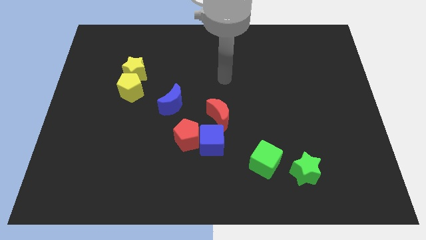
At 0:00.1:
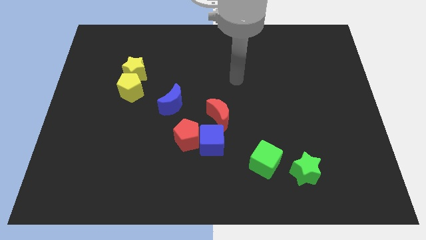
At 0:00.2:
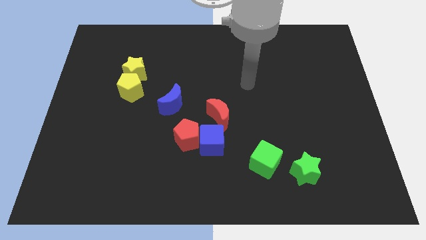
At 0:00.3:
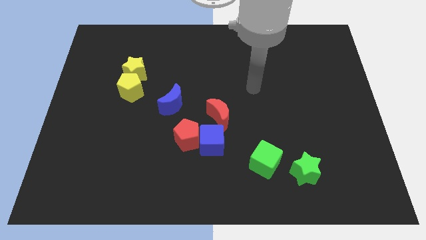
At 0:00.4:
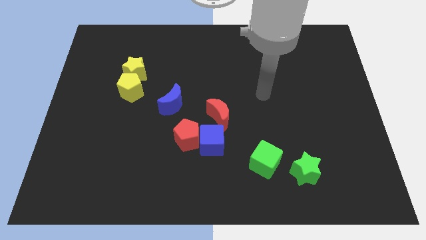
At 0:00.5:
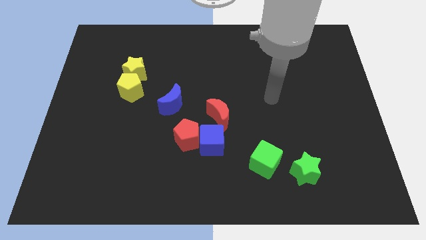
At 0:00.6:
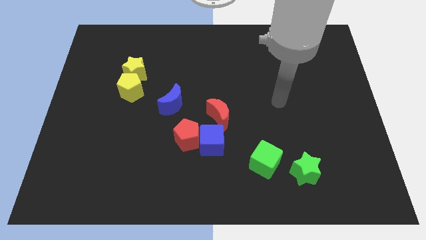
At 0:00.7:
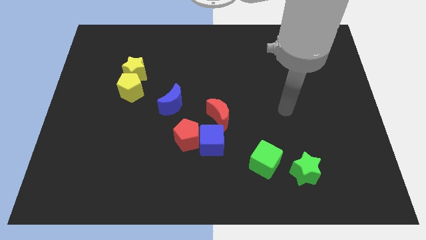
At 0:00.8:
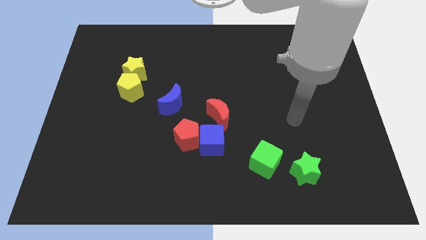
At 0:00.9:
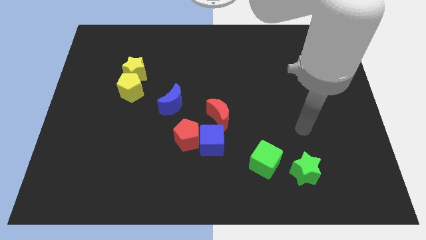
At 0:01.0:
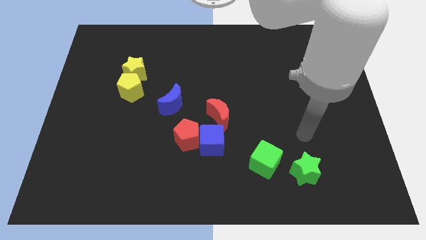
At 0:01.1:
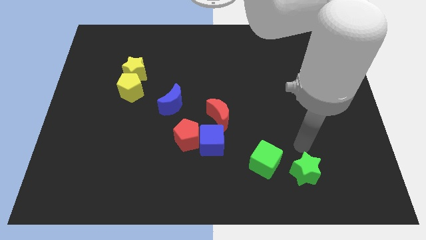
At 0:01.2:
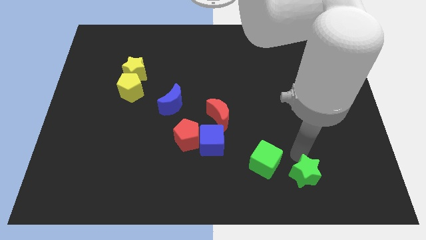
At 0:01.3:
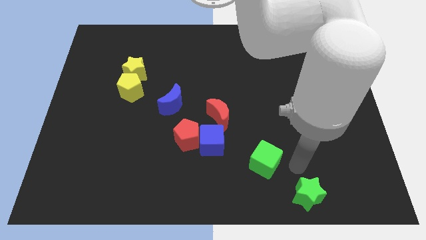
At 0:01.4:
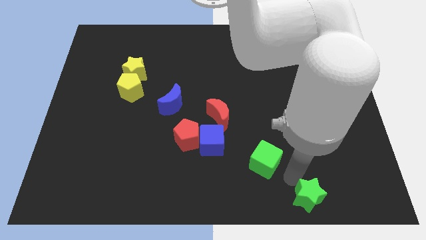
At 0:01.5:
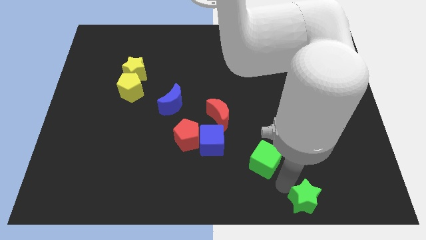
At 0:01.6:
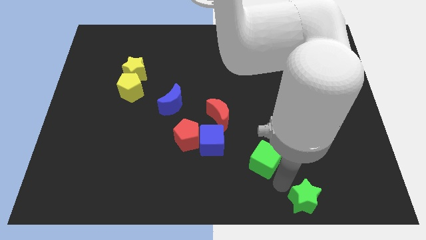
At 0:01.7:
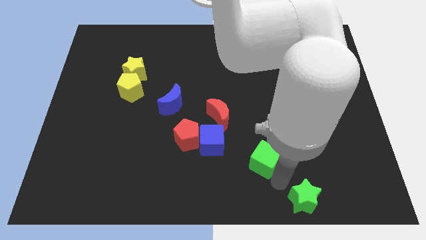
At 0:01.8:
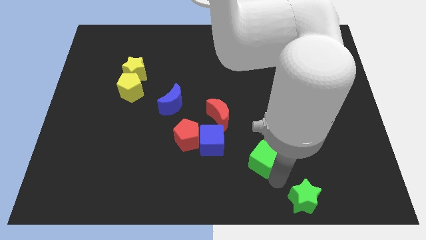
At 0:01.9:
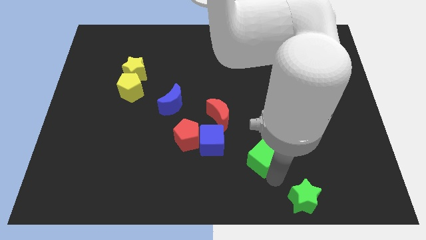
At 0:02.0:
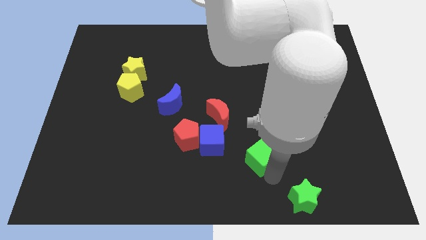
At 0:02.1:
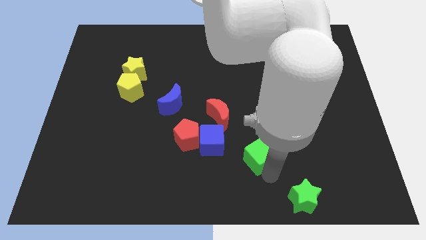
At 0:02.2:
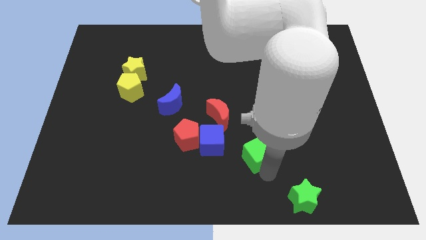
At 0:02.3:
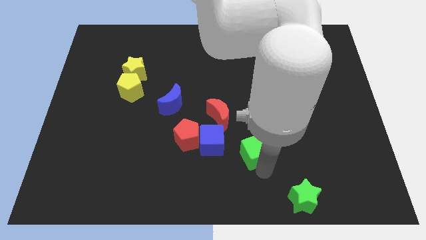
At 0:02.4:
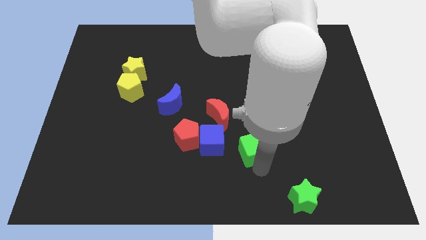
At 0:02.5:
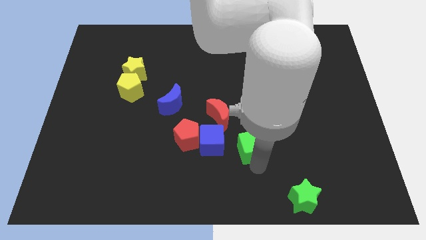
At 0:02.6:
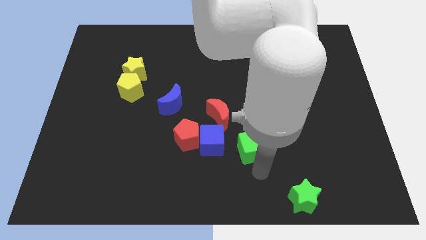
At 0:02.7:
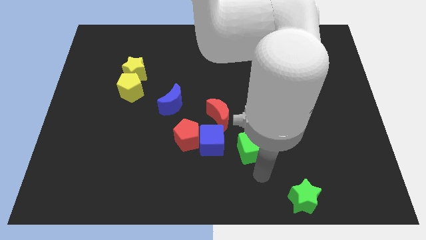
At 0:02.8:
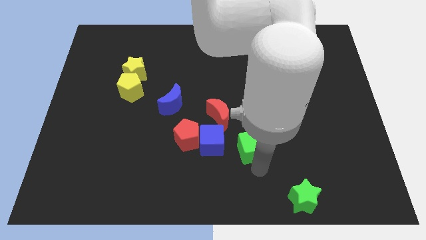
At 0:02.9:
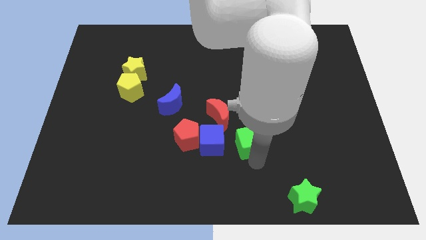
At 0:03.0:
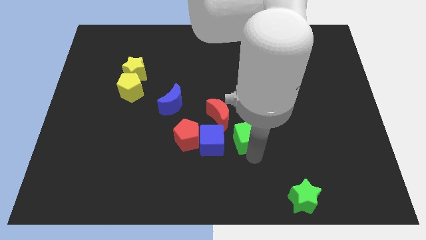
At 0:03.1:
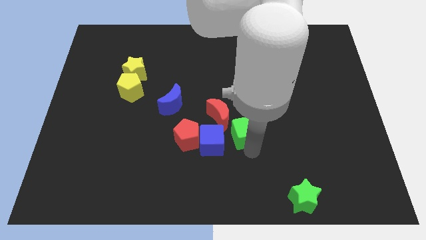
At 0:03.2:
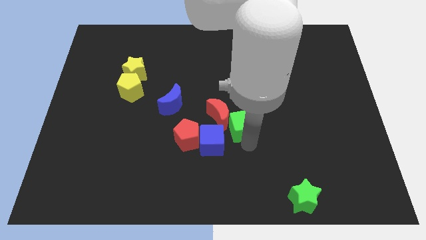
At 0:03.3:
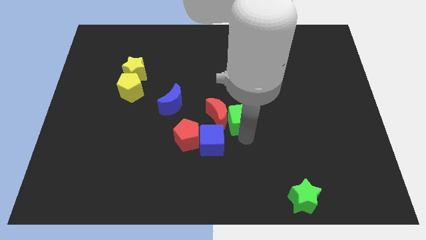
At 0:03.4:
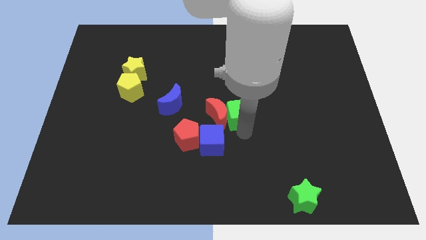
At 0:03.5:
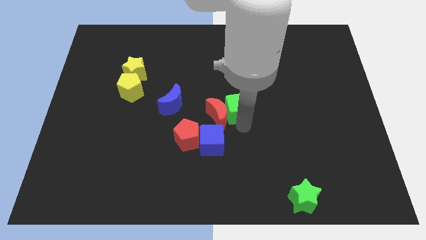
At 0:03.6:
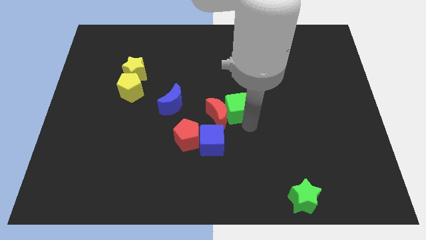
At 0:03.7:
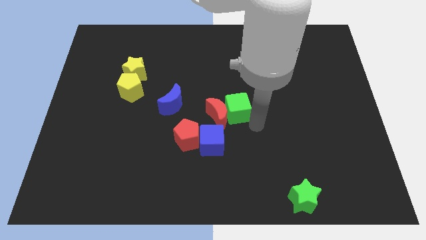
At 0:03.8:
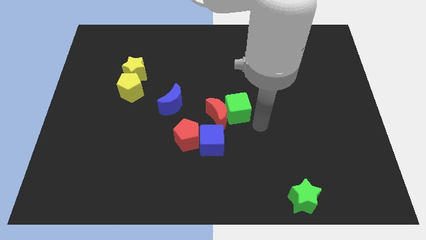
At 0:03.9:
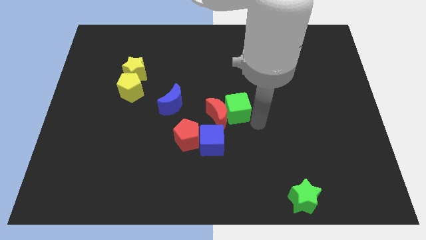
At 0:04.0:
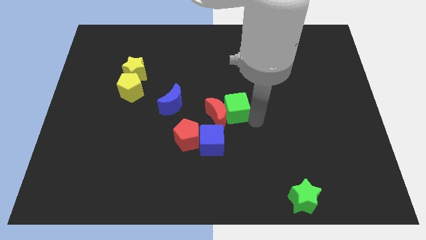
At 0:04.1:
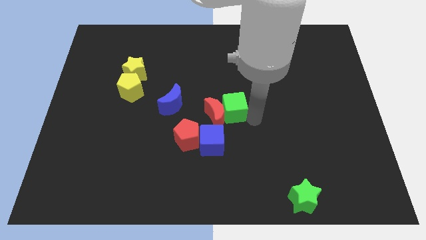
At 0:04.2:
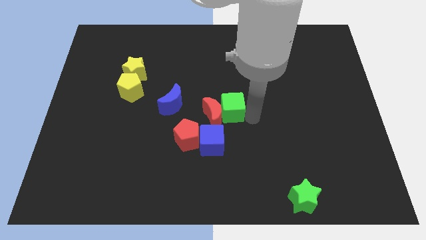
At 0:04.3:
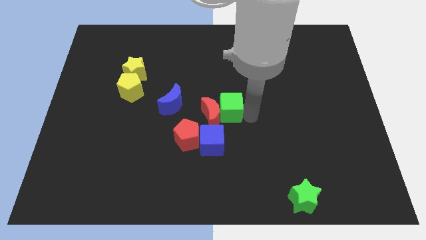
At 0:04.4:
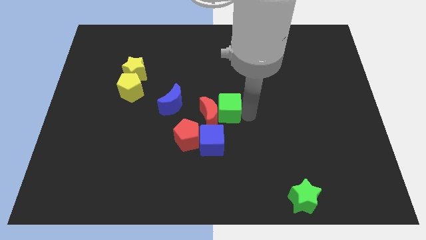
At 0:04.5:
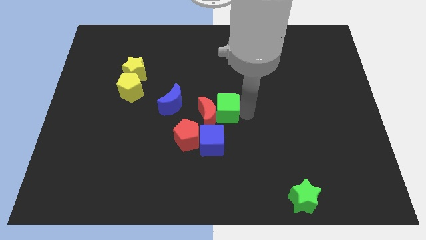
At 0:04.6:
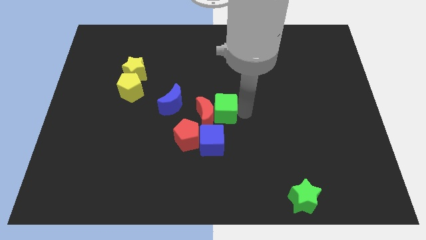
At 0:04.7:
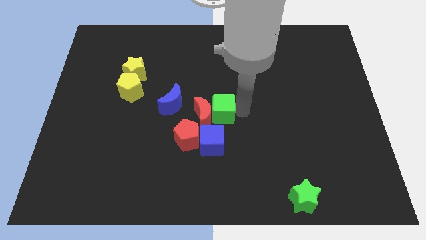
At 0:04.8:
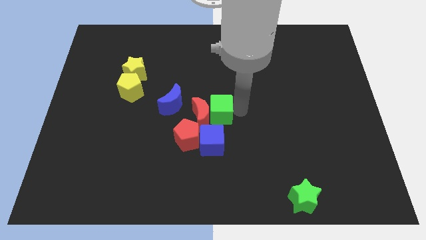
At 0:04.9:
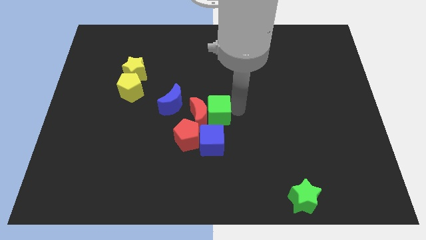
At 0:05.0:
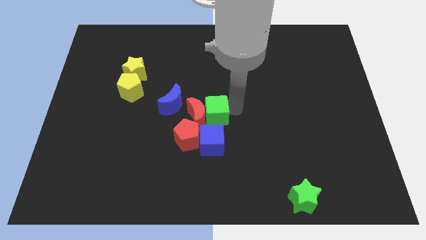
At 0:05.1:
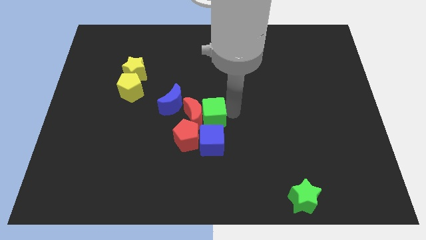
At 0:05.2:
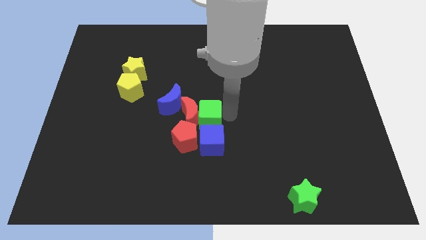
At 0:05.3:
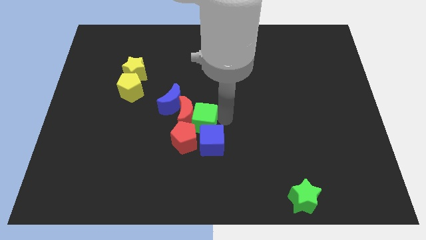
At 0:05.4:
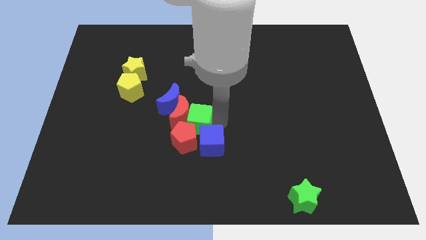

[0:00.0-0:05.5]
put the green cube close to the red pentagon

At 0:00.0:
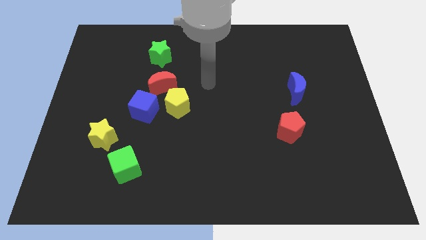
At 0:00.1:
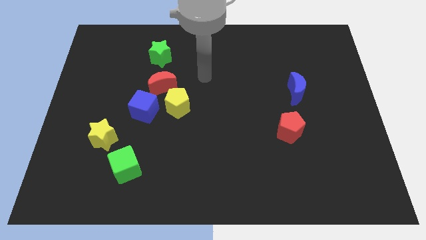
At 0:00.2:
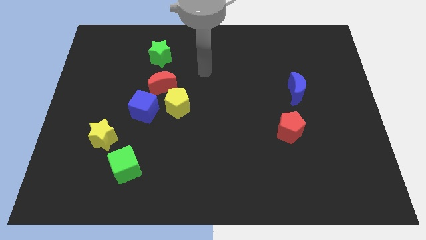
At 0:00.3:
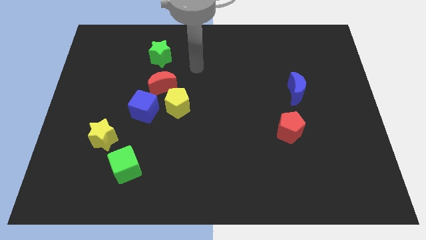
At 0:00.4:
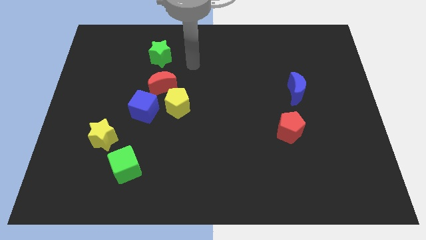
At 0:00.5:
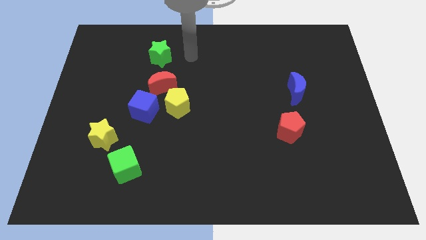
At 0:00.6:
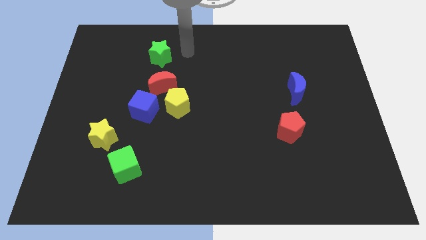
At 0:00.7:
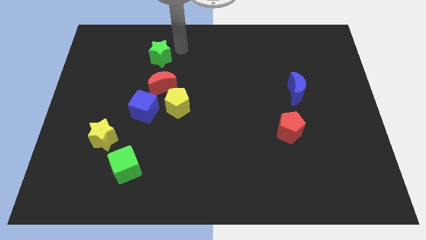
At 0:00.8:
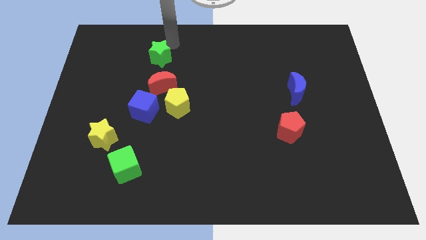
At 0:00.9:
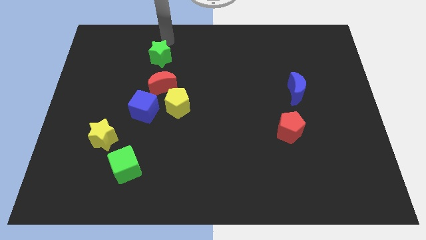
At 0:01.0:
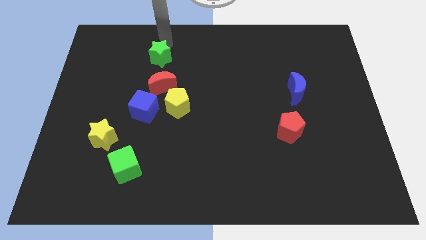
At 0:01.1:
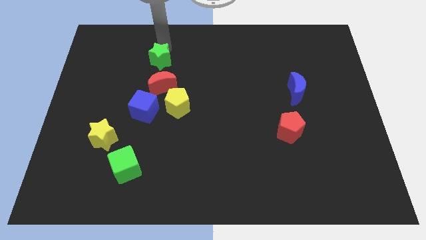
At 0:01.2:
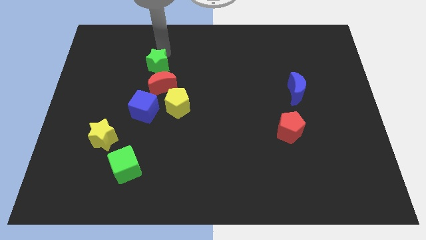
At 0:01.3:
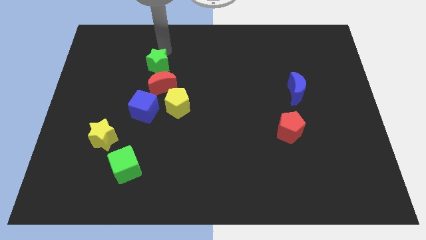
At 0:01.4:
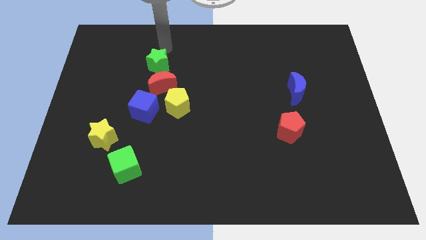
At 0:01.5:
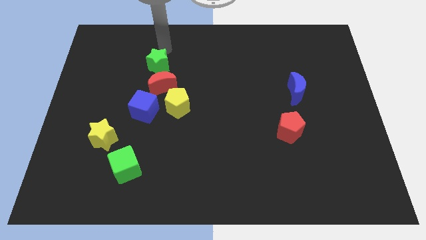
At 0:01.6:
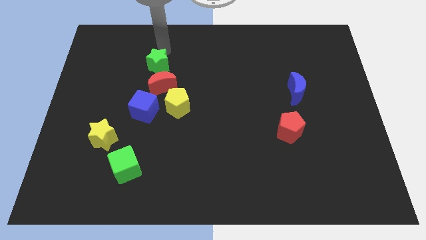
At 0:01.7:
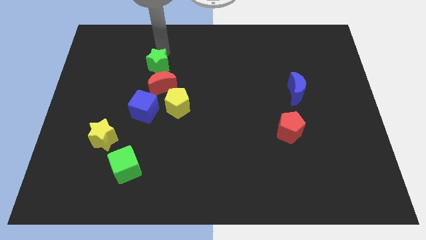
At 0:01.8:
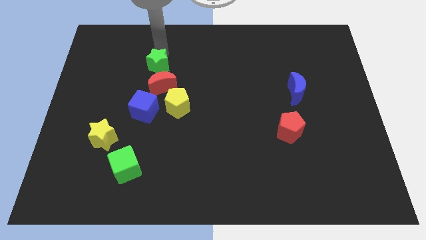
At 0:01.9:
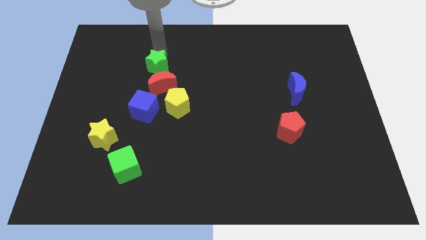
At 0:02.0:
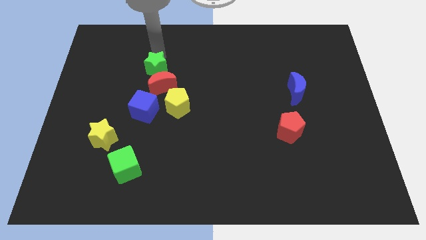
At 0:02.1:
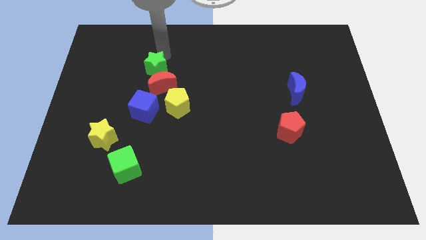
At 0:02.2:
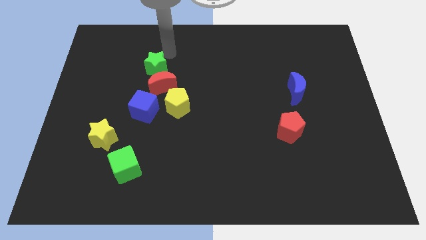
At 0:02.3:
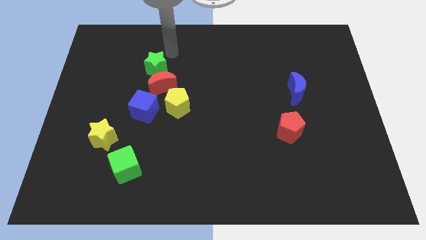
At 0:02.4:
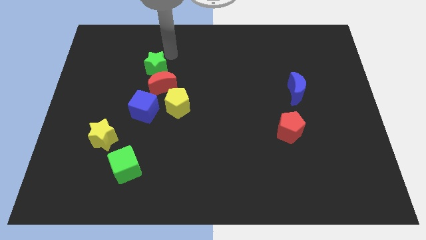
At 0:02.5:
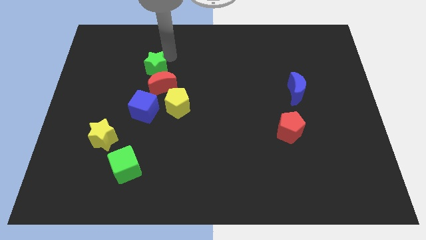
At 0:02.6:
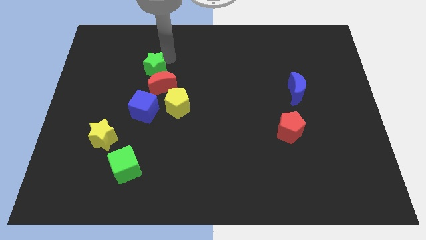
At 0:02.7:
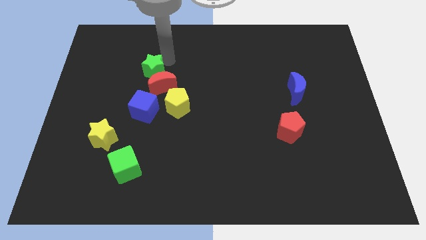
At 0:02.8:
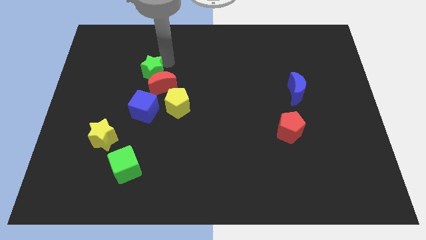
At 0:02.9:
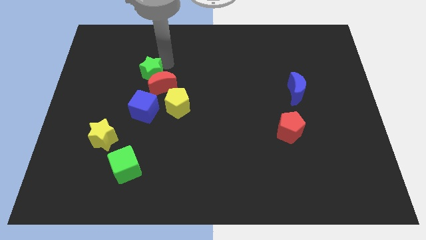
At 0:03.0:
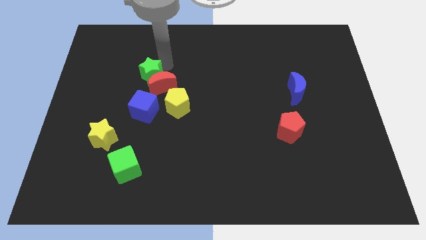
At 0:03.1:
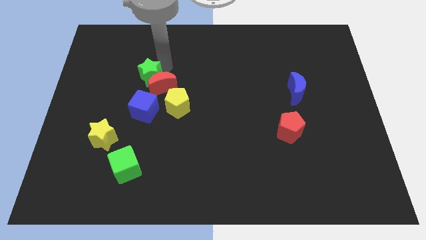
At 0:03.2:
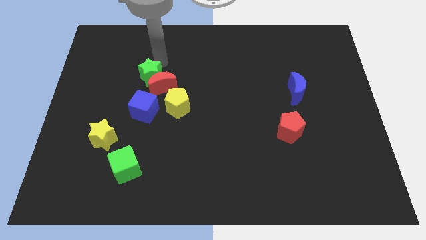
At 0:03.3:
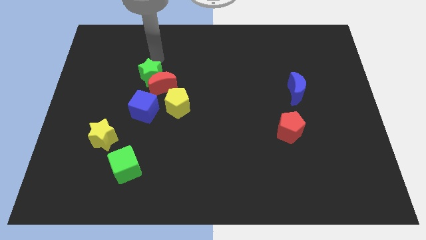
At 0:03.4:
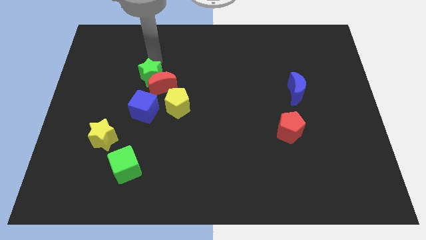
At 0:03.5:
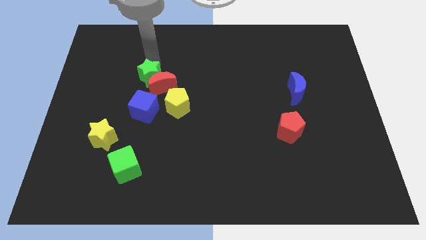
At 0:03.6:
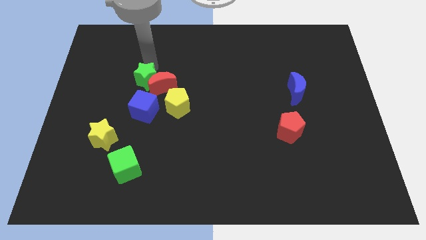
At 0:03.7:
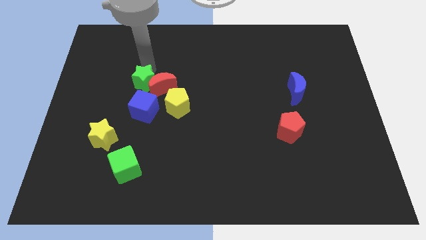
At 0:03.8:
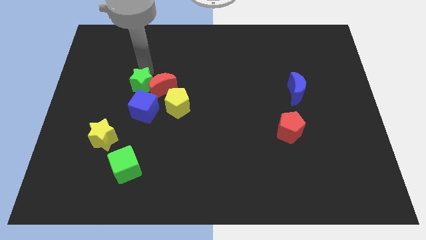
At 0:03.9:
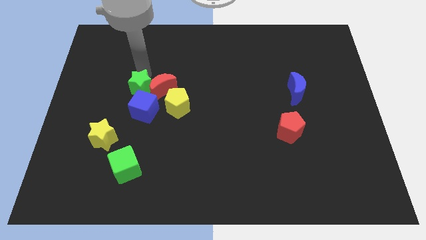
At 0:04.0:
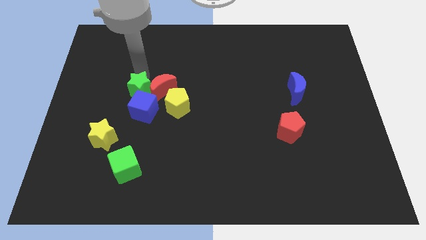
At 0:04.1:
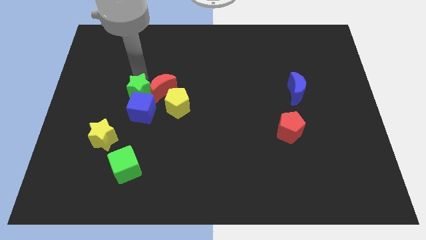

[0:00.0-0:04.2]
move the green star close to the blue cube
